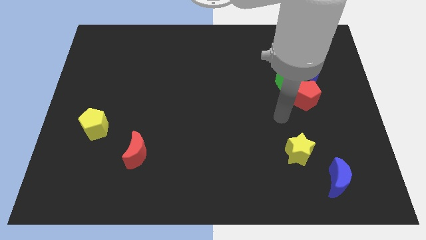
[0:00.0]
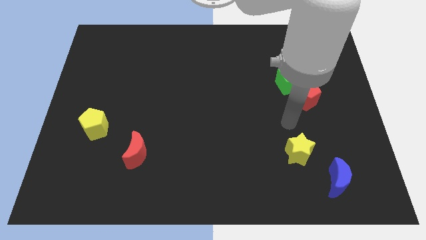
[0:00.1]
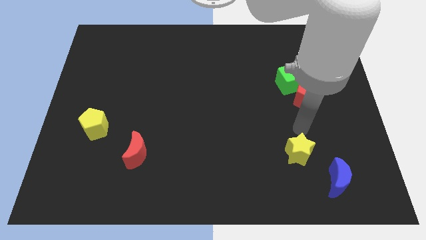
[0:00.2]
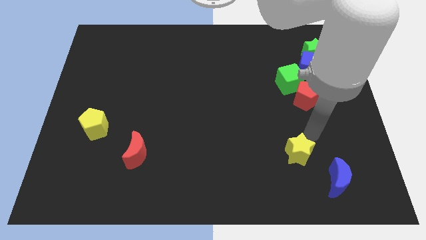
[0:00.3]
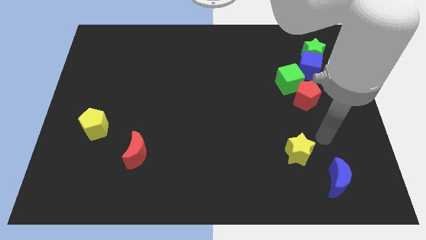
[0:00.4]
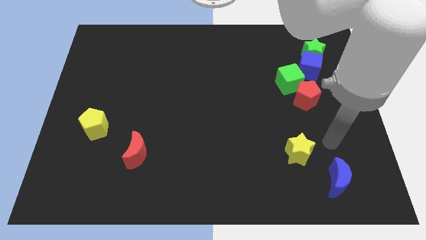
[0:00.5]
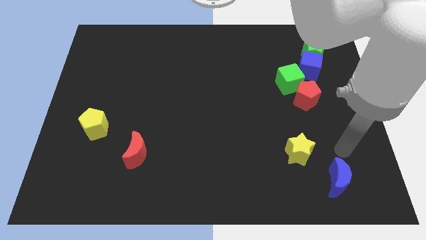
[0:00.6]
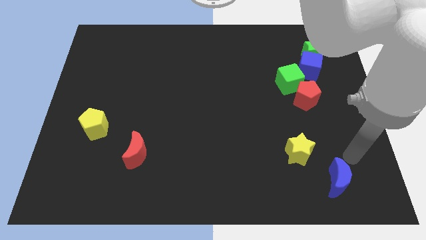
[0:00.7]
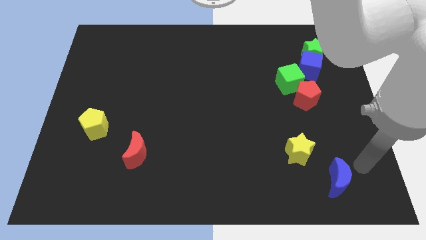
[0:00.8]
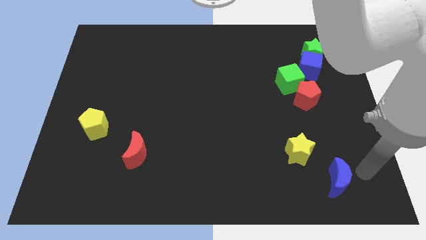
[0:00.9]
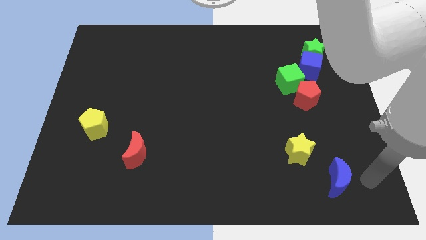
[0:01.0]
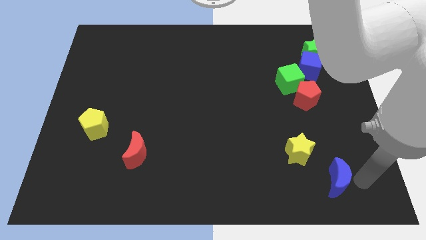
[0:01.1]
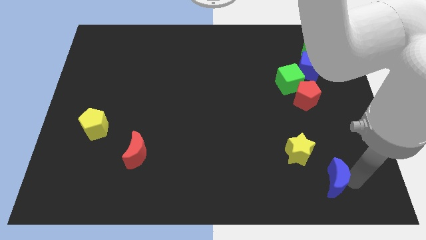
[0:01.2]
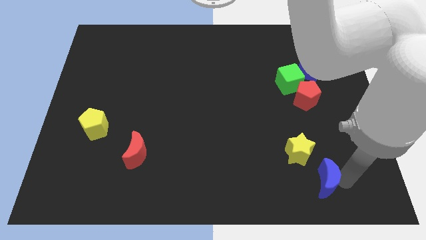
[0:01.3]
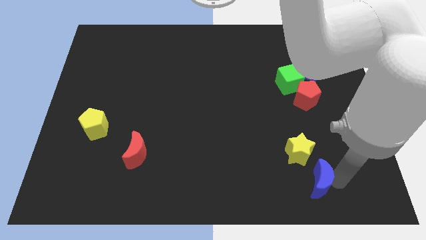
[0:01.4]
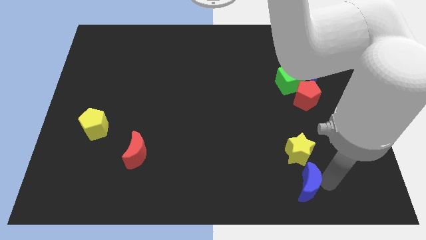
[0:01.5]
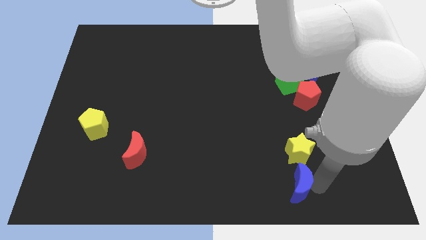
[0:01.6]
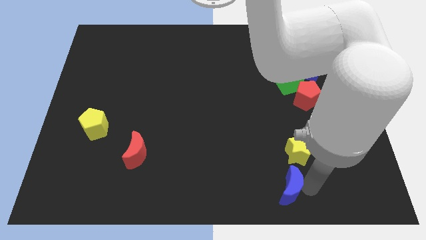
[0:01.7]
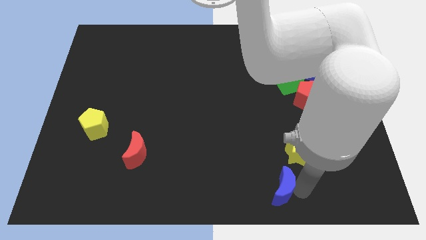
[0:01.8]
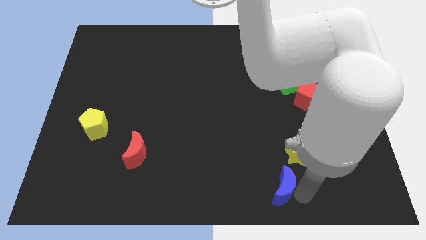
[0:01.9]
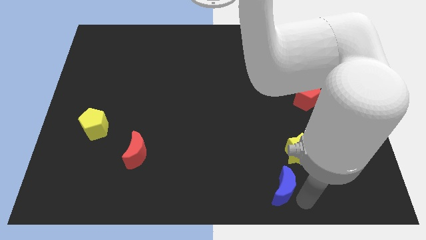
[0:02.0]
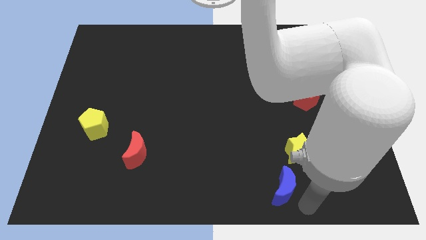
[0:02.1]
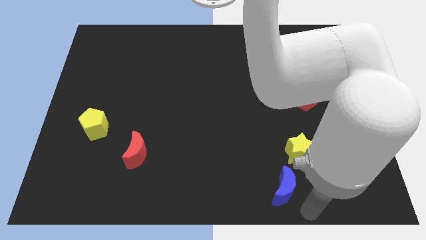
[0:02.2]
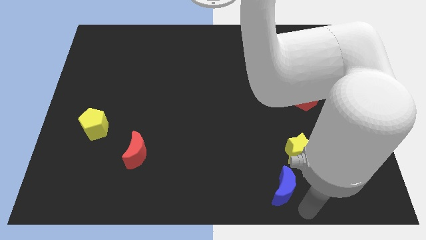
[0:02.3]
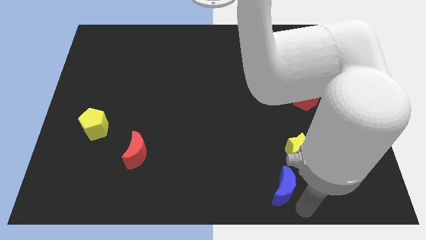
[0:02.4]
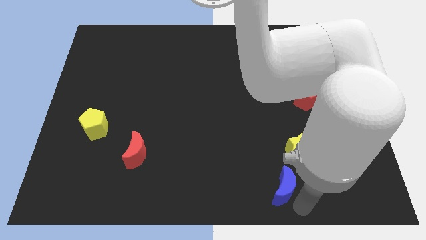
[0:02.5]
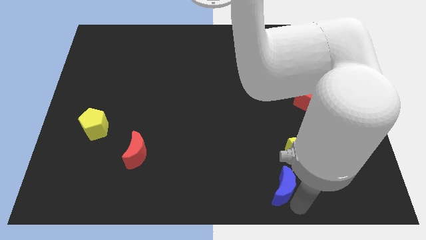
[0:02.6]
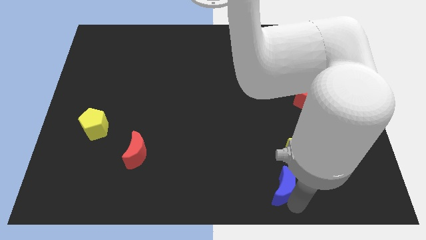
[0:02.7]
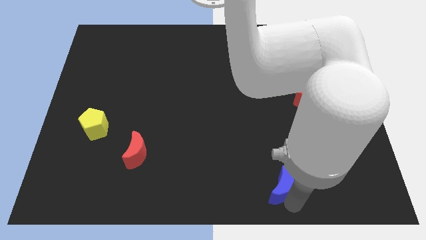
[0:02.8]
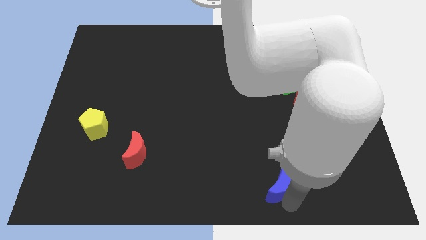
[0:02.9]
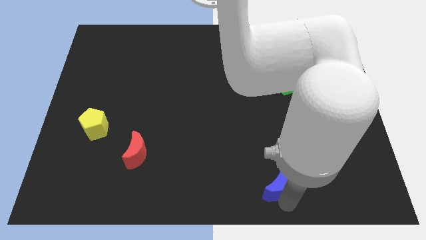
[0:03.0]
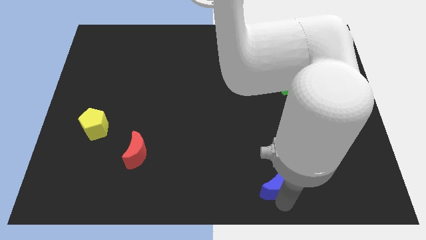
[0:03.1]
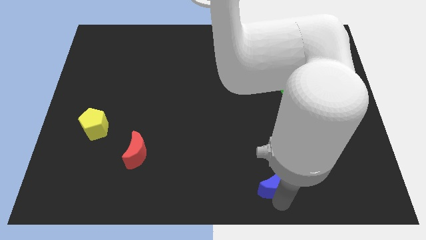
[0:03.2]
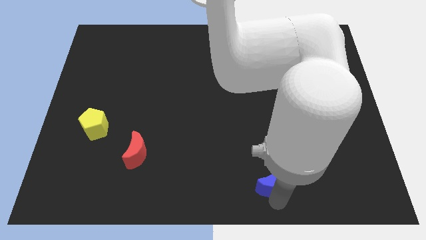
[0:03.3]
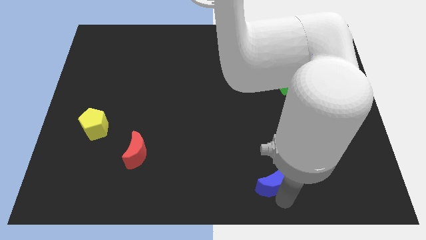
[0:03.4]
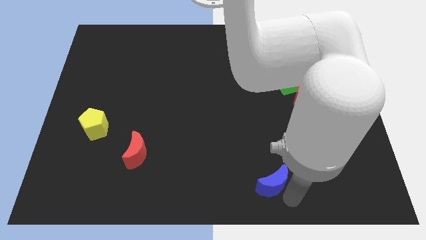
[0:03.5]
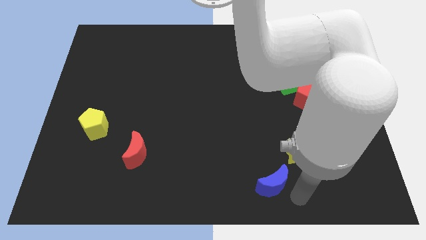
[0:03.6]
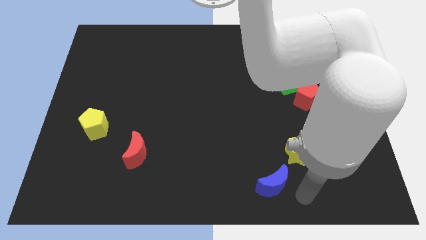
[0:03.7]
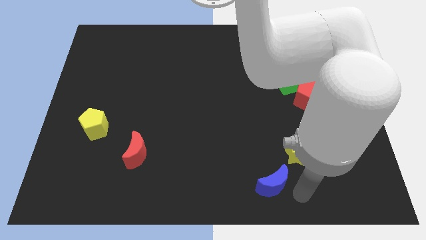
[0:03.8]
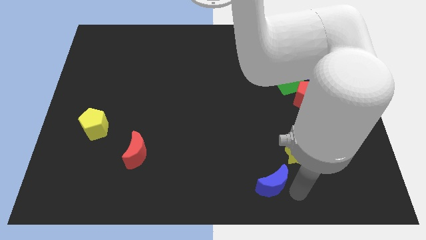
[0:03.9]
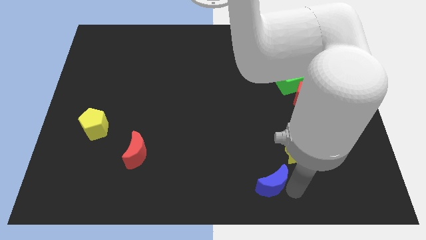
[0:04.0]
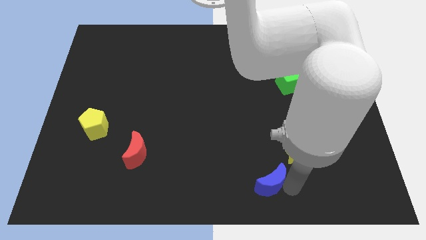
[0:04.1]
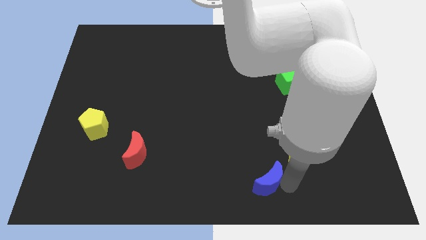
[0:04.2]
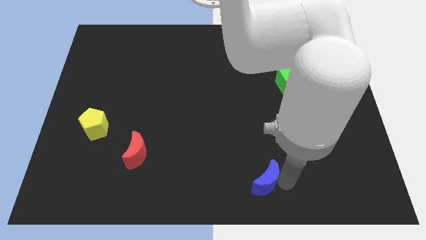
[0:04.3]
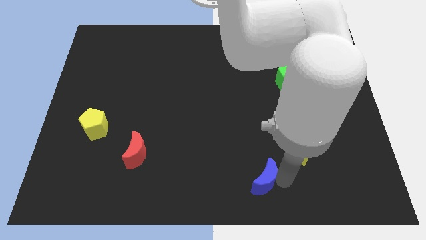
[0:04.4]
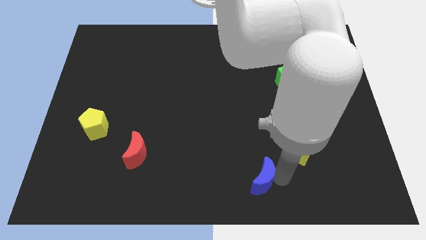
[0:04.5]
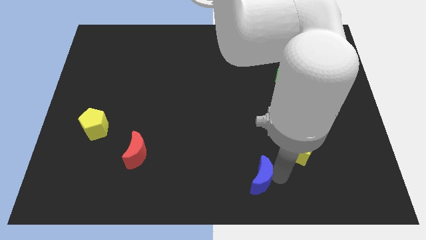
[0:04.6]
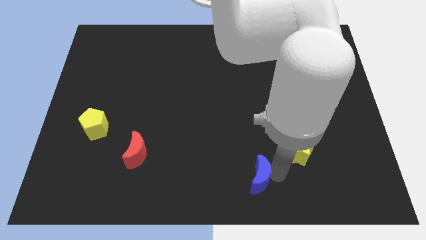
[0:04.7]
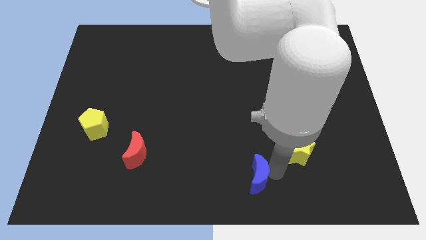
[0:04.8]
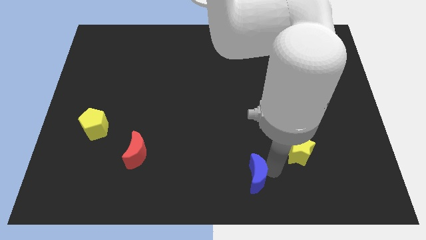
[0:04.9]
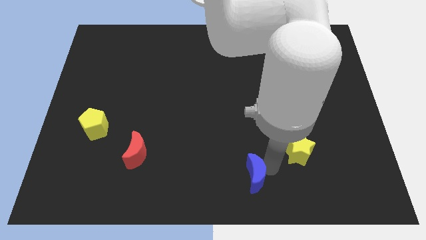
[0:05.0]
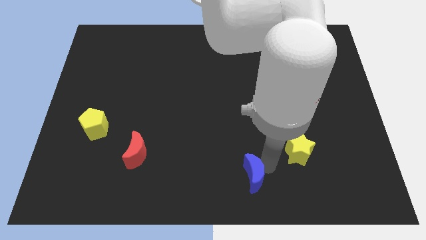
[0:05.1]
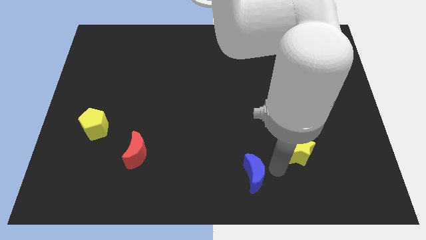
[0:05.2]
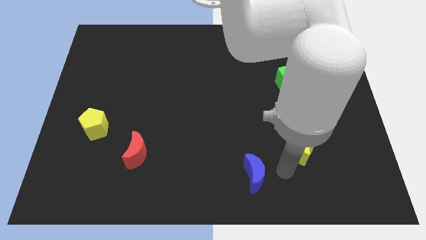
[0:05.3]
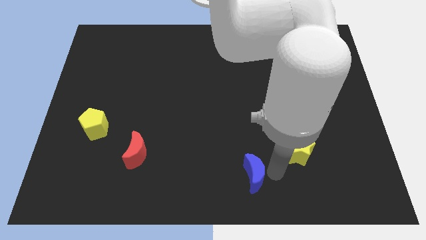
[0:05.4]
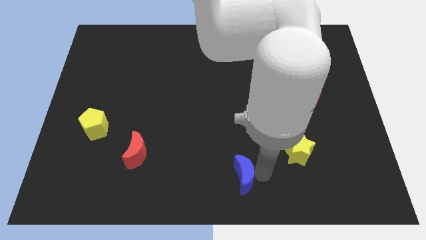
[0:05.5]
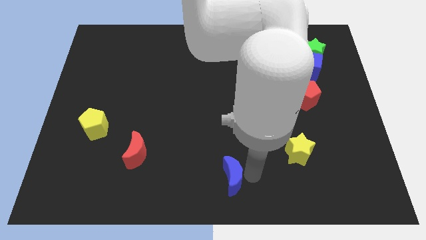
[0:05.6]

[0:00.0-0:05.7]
move the blue moon left

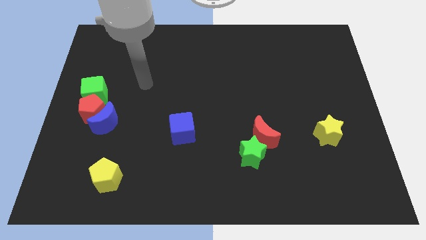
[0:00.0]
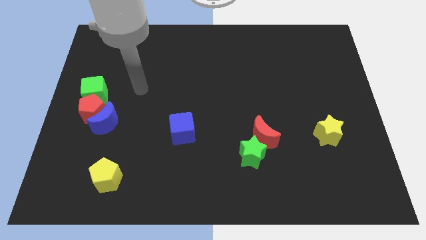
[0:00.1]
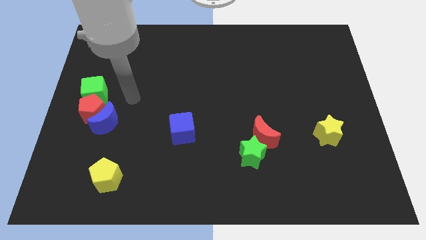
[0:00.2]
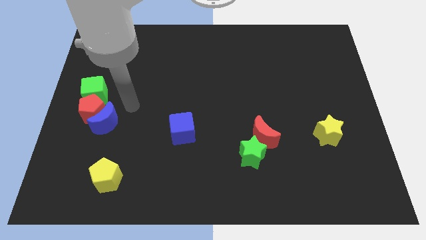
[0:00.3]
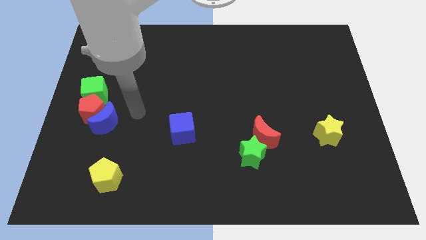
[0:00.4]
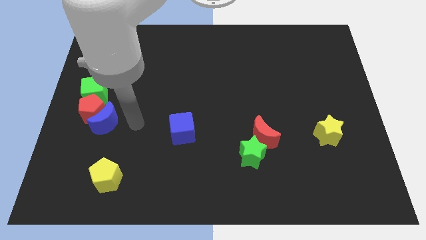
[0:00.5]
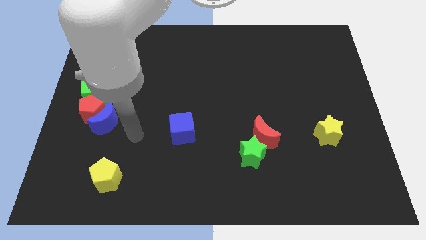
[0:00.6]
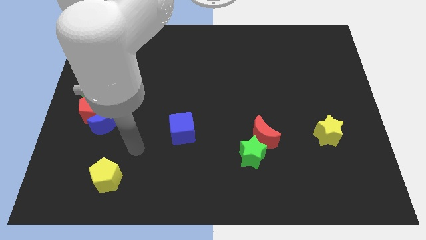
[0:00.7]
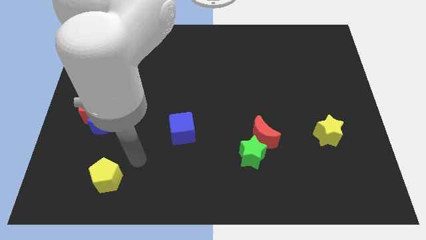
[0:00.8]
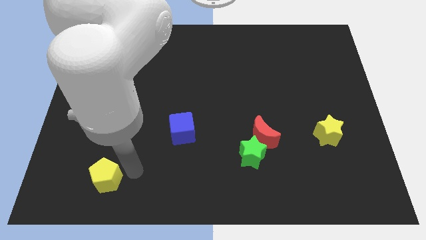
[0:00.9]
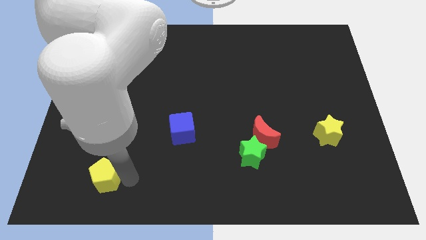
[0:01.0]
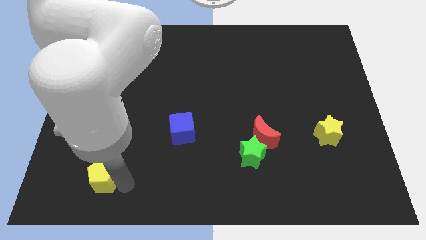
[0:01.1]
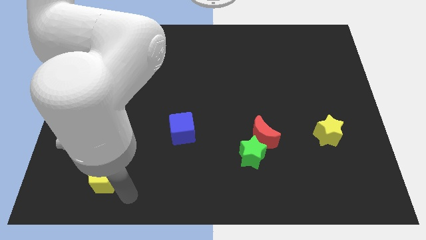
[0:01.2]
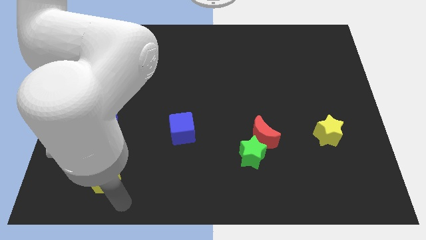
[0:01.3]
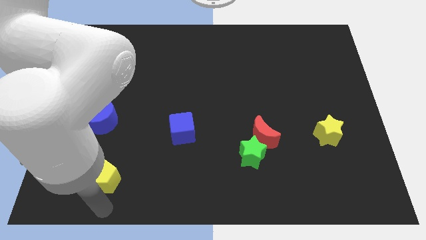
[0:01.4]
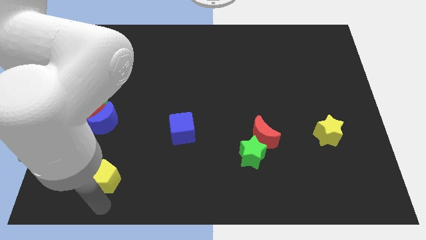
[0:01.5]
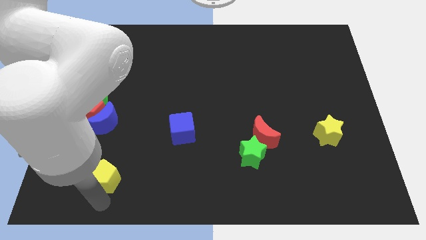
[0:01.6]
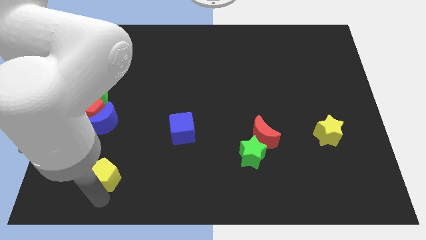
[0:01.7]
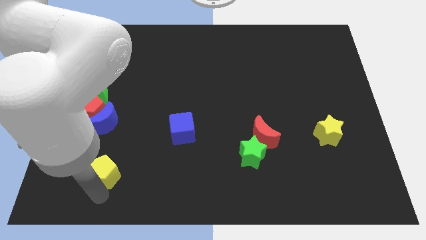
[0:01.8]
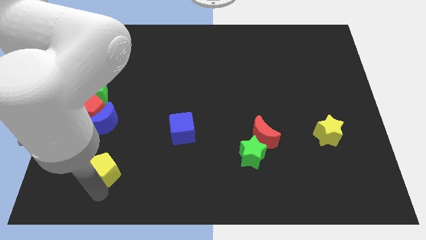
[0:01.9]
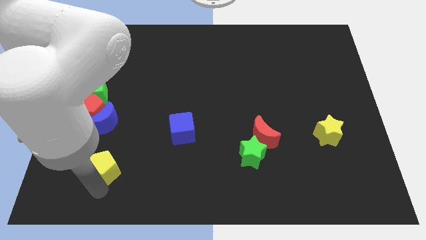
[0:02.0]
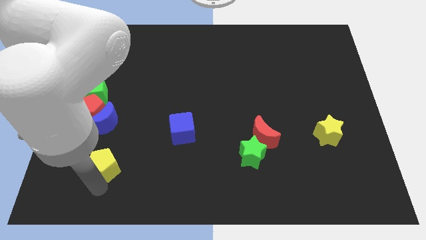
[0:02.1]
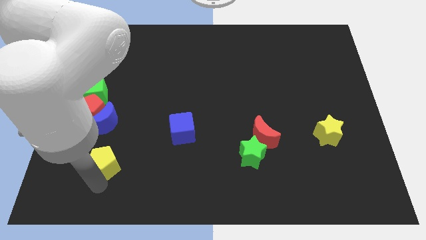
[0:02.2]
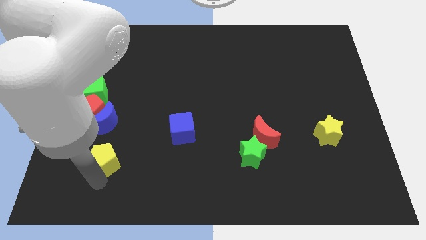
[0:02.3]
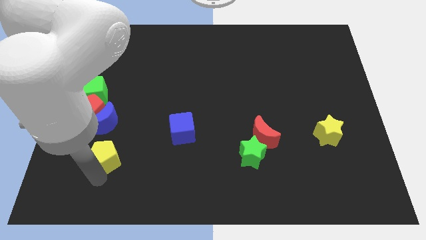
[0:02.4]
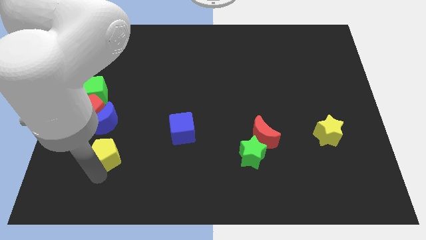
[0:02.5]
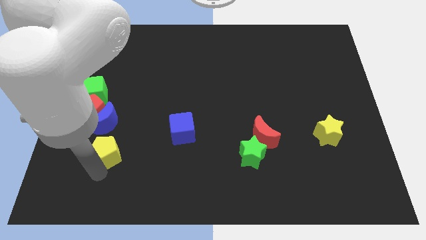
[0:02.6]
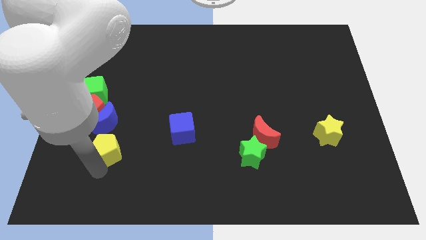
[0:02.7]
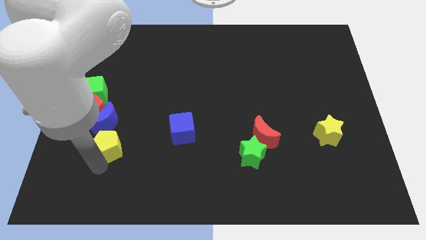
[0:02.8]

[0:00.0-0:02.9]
slide the yellow pentagon upwards somewhat
